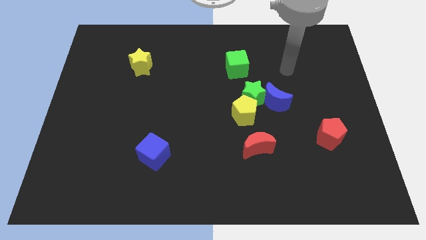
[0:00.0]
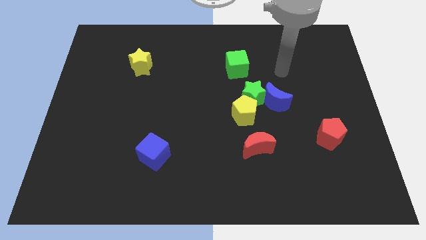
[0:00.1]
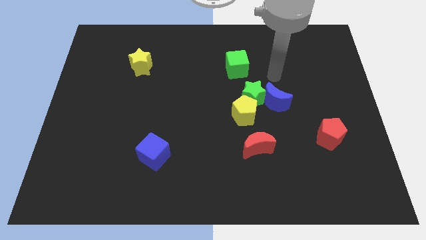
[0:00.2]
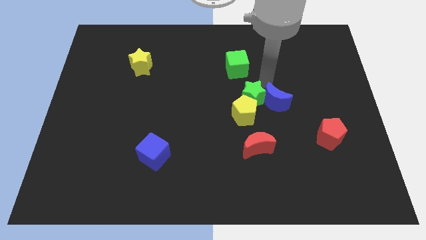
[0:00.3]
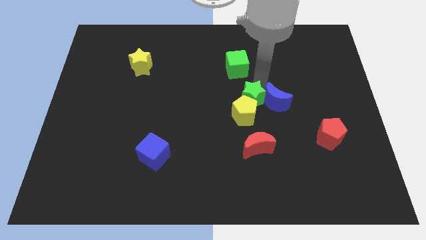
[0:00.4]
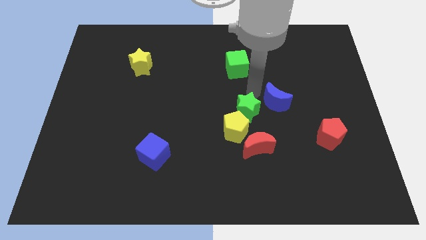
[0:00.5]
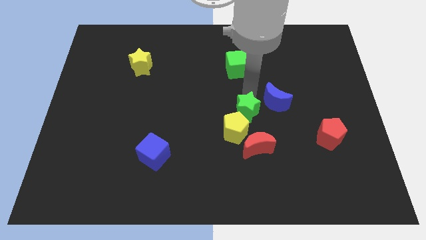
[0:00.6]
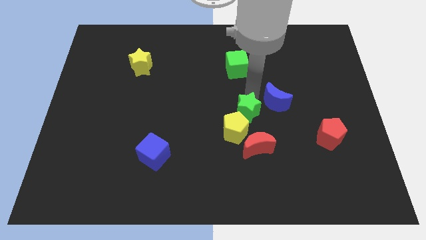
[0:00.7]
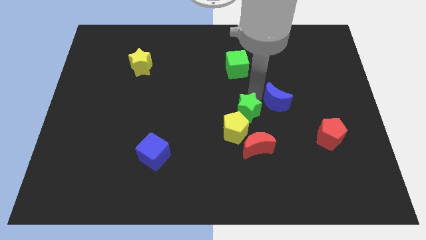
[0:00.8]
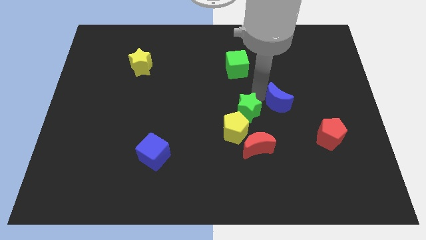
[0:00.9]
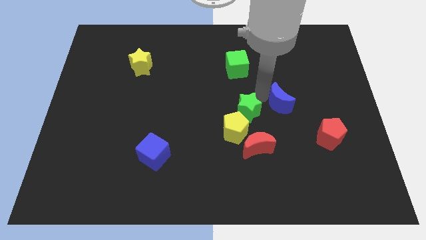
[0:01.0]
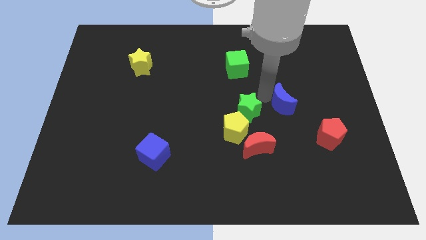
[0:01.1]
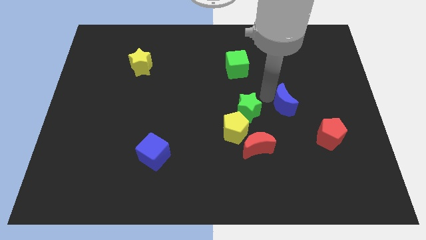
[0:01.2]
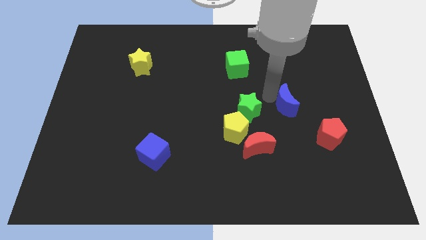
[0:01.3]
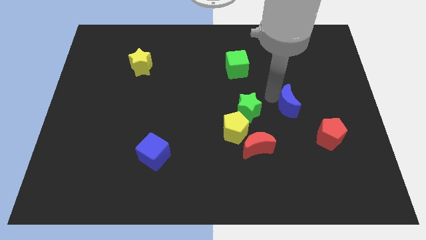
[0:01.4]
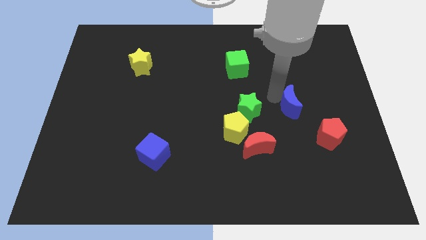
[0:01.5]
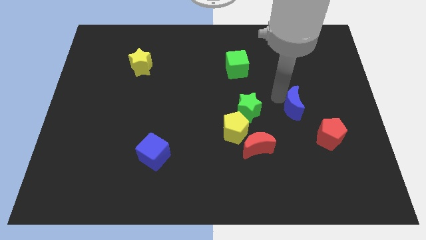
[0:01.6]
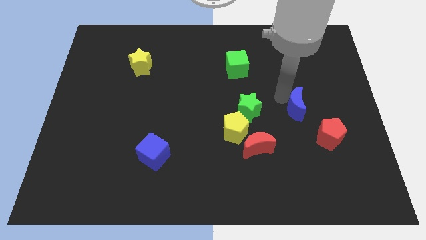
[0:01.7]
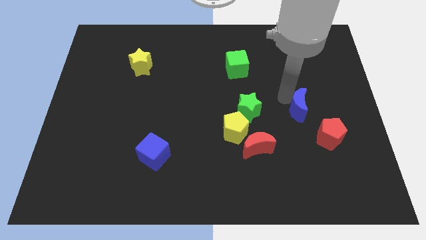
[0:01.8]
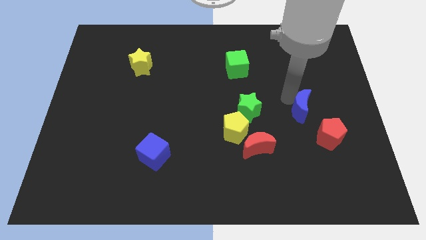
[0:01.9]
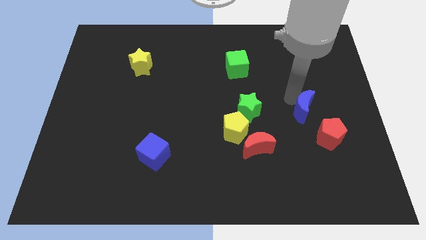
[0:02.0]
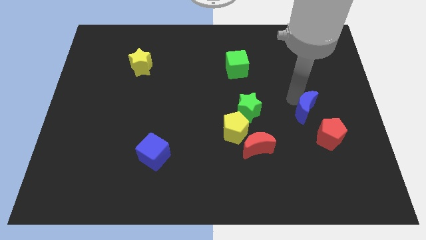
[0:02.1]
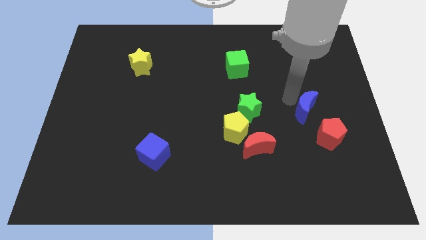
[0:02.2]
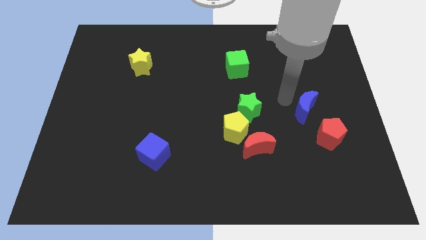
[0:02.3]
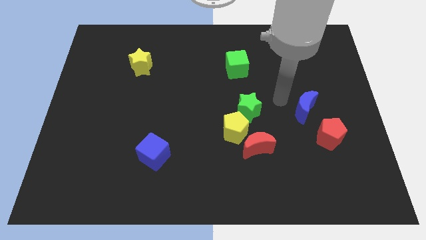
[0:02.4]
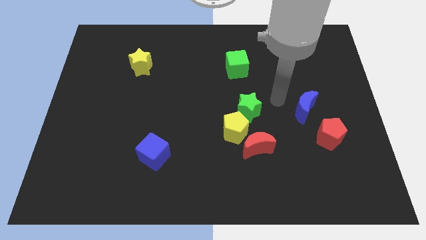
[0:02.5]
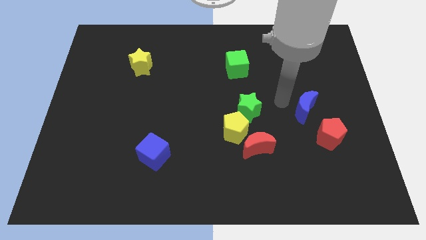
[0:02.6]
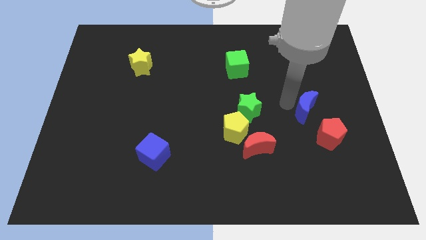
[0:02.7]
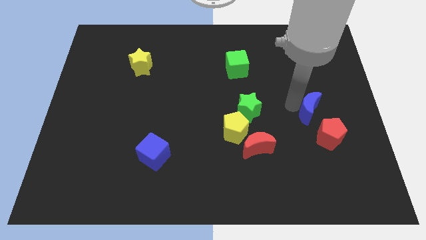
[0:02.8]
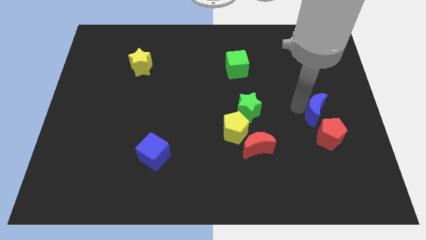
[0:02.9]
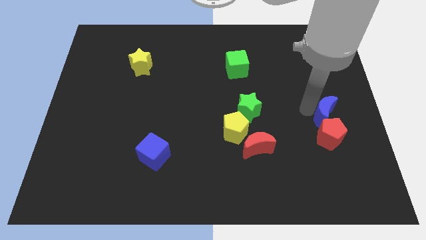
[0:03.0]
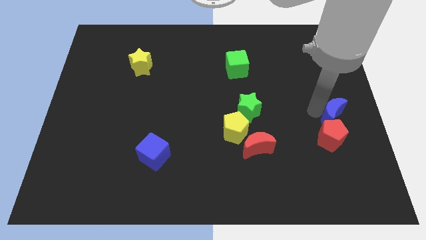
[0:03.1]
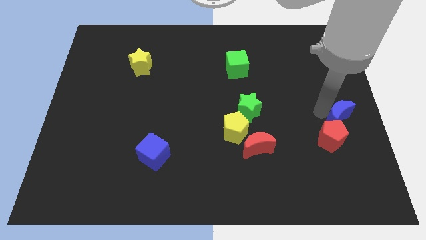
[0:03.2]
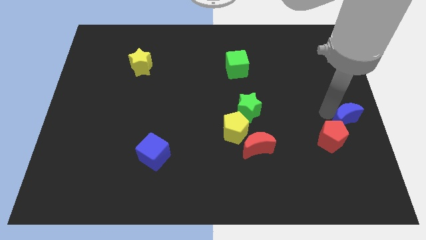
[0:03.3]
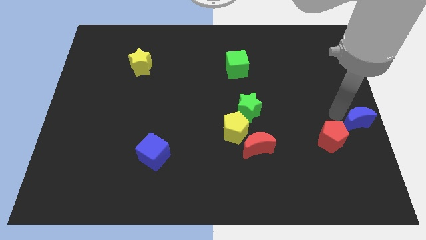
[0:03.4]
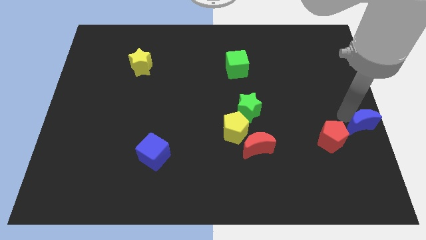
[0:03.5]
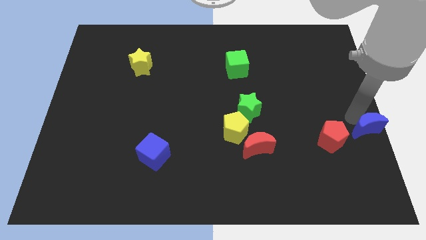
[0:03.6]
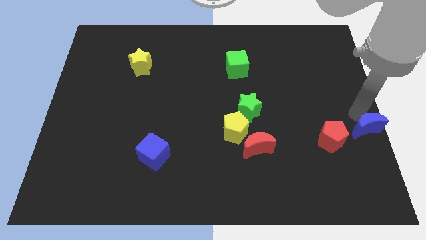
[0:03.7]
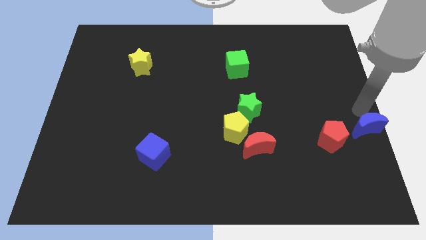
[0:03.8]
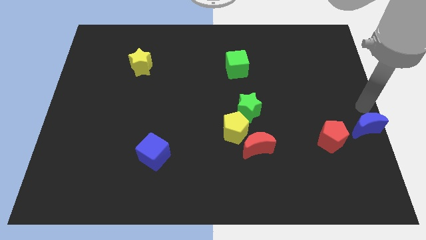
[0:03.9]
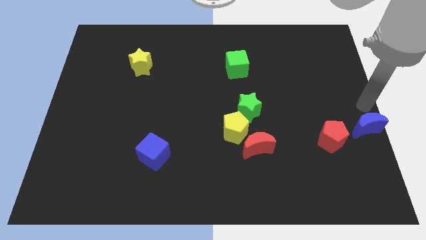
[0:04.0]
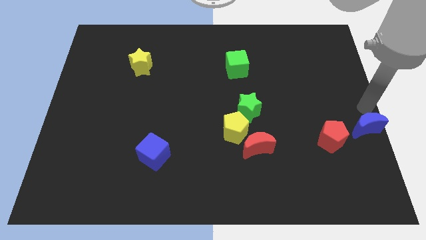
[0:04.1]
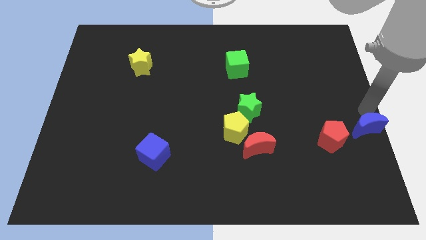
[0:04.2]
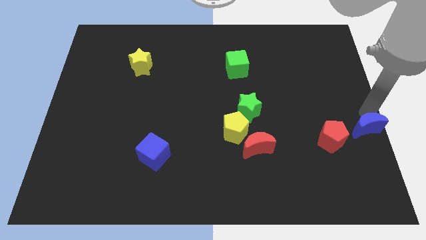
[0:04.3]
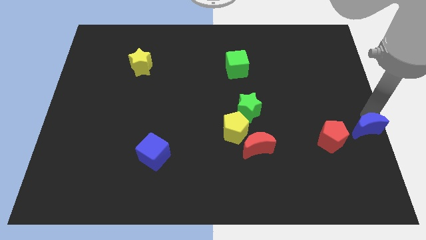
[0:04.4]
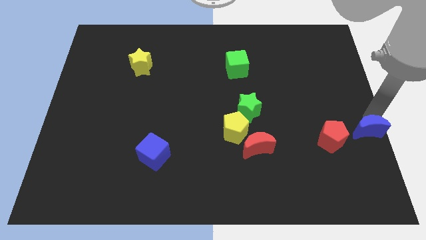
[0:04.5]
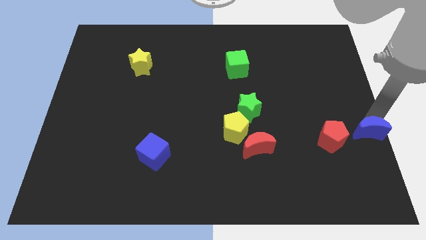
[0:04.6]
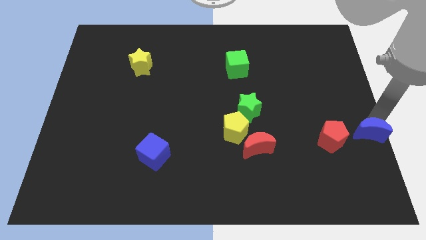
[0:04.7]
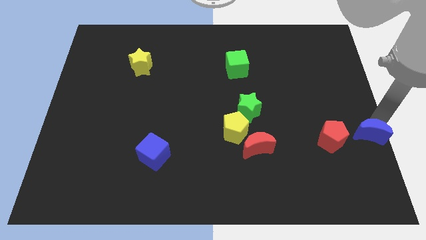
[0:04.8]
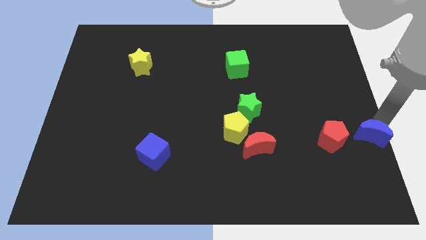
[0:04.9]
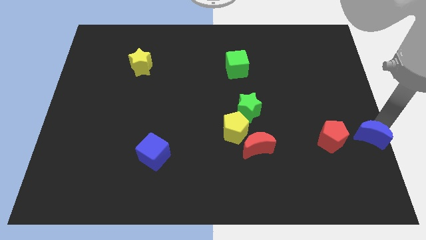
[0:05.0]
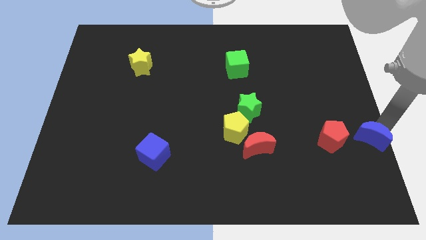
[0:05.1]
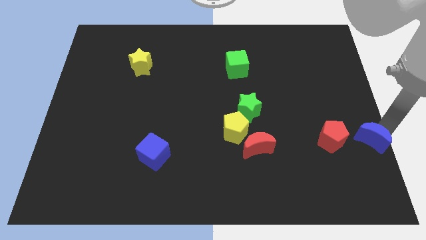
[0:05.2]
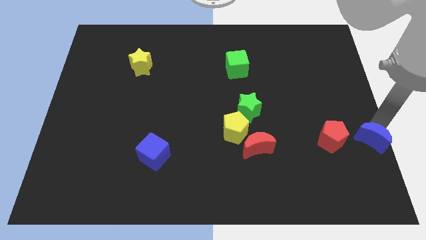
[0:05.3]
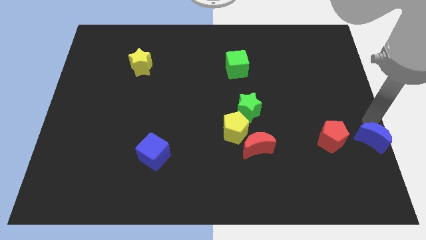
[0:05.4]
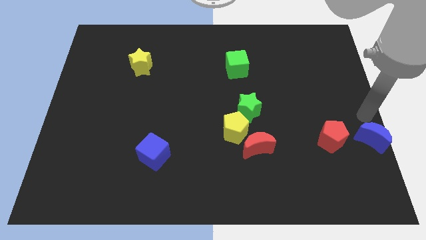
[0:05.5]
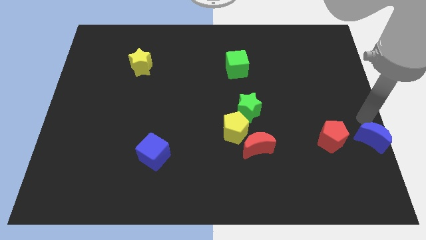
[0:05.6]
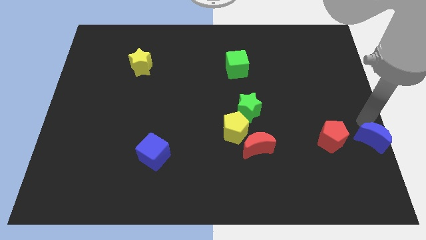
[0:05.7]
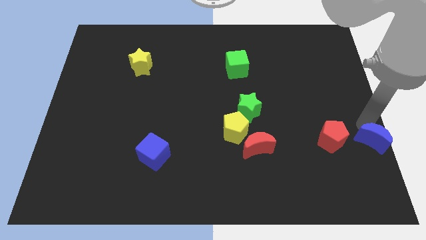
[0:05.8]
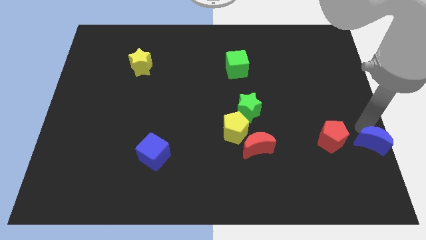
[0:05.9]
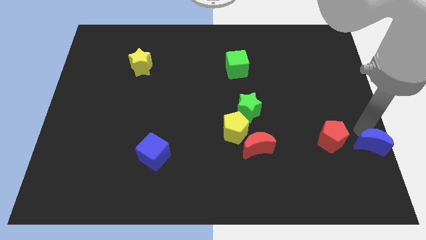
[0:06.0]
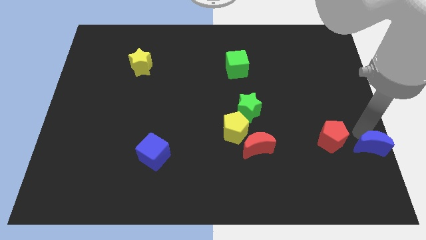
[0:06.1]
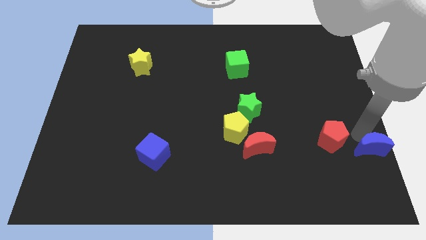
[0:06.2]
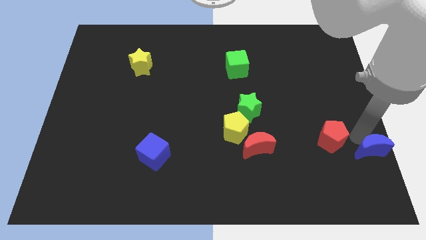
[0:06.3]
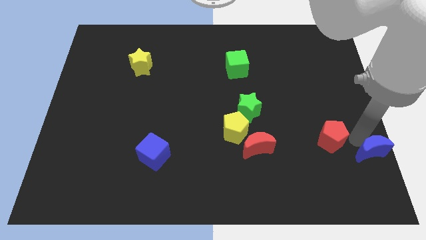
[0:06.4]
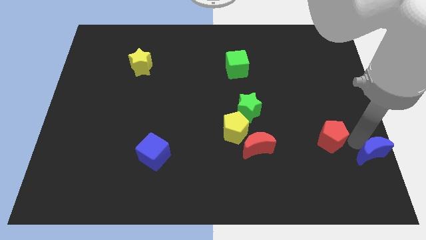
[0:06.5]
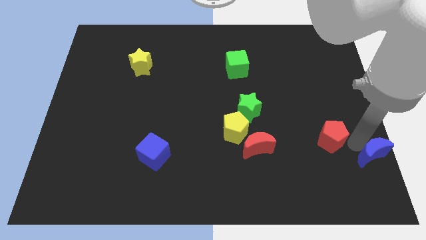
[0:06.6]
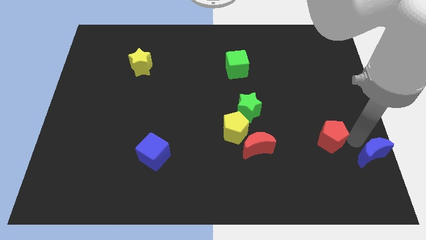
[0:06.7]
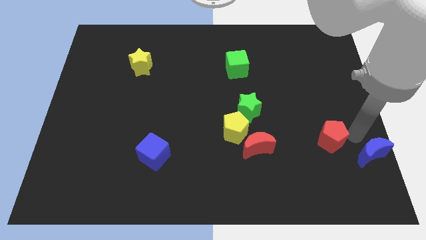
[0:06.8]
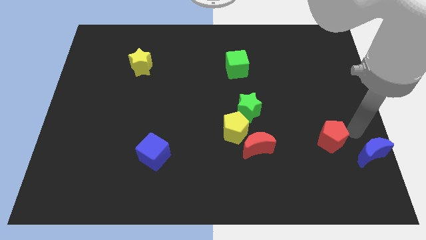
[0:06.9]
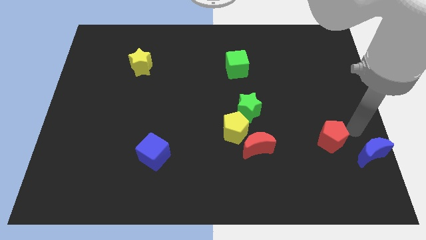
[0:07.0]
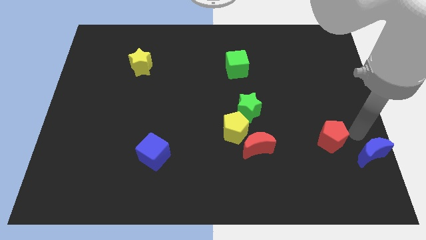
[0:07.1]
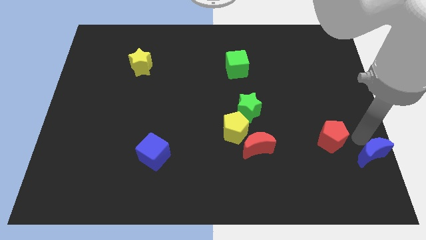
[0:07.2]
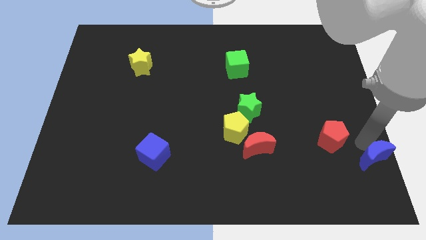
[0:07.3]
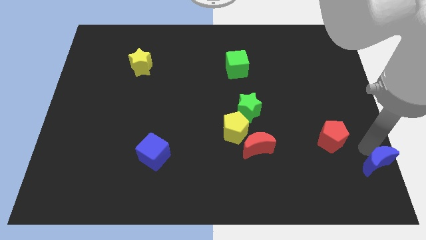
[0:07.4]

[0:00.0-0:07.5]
move the blue moon to the bottom right
